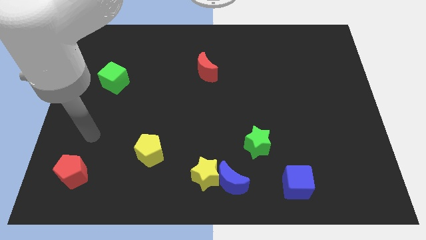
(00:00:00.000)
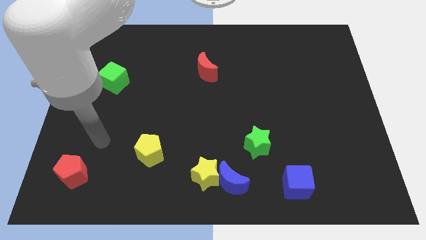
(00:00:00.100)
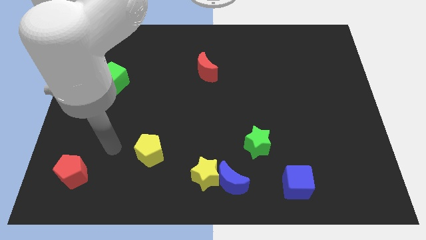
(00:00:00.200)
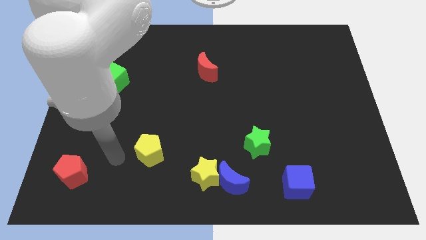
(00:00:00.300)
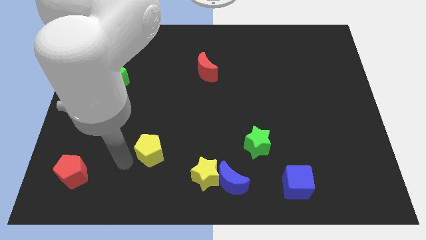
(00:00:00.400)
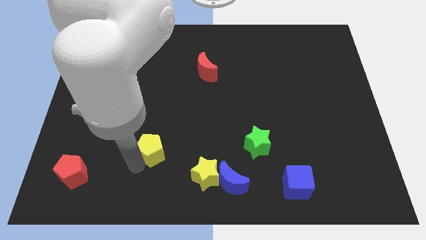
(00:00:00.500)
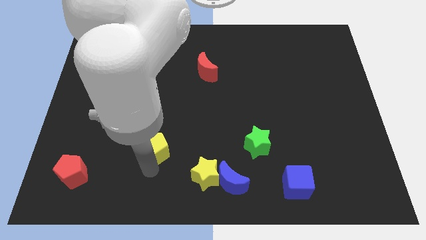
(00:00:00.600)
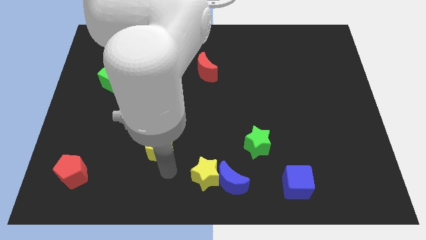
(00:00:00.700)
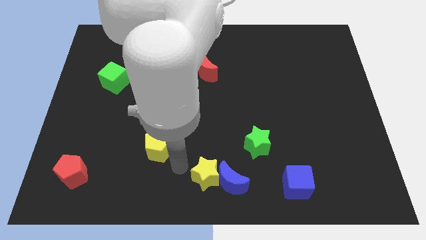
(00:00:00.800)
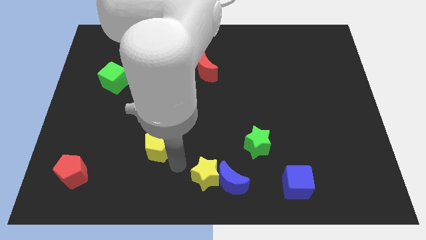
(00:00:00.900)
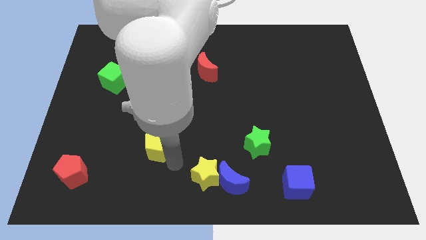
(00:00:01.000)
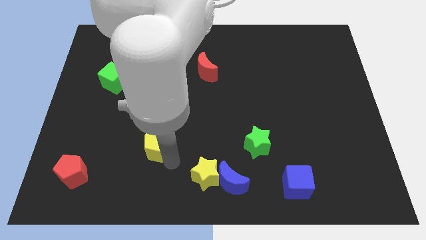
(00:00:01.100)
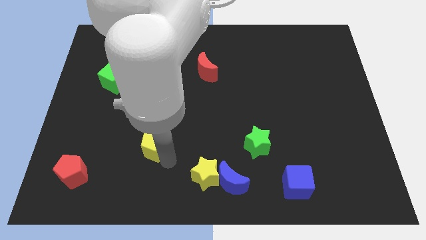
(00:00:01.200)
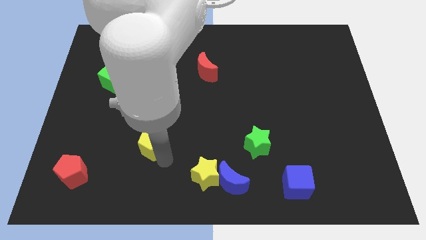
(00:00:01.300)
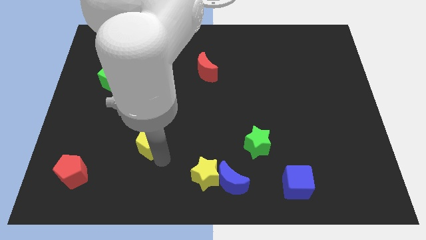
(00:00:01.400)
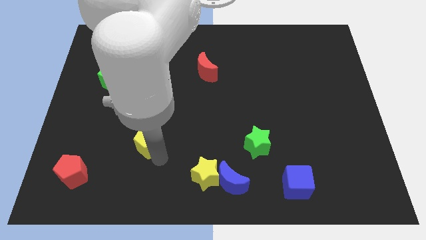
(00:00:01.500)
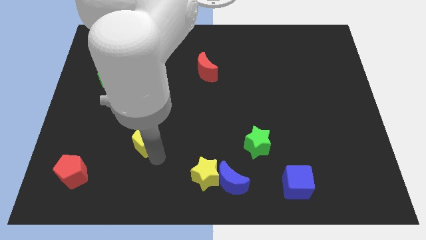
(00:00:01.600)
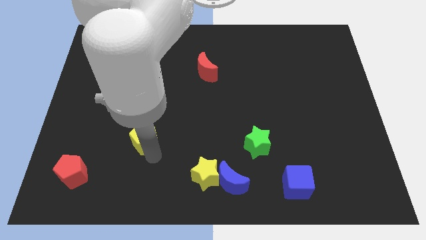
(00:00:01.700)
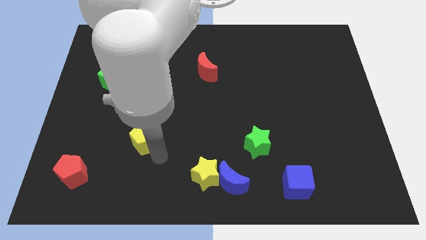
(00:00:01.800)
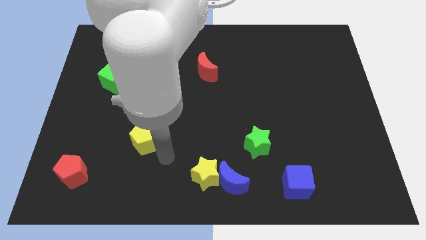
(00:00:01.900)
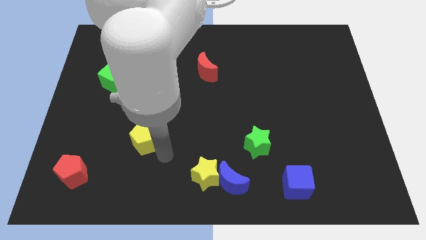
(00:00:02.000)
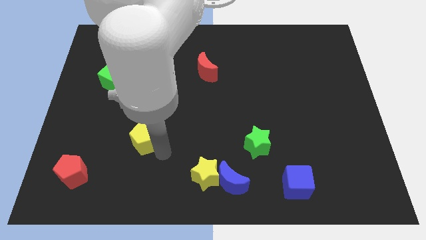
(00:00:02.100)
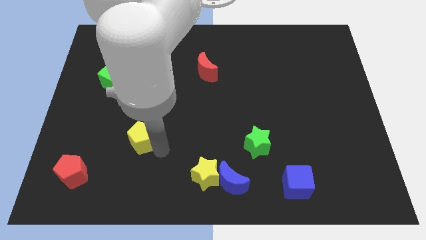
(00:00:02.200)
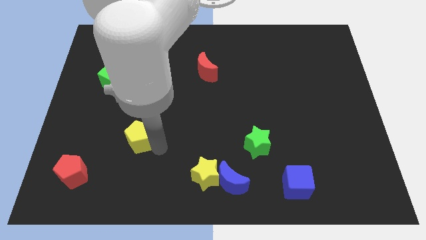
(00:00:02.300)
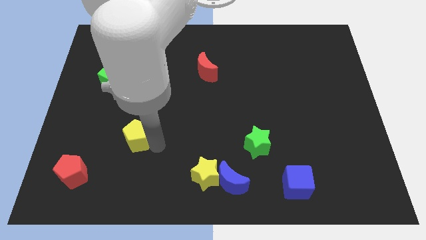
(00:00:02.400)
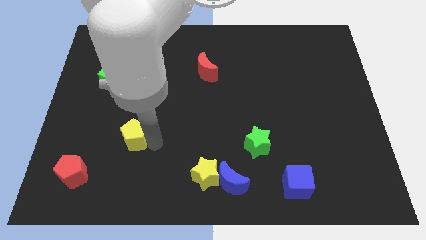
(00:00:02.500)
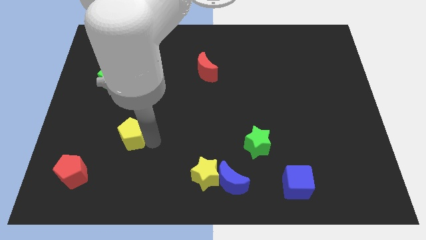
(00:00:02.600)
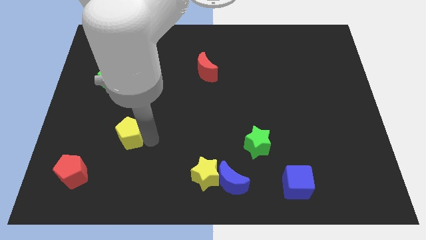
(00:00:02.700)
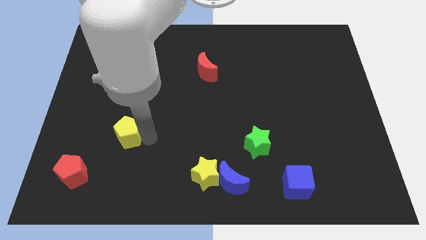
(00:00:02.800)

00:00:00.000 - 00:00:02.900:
slightly move the yellow pentagon upwards and left

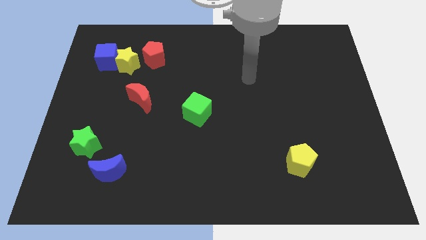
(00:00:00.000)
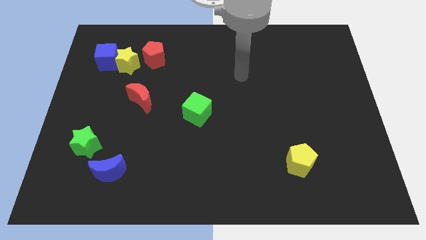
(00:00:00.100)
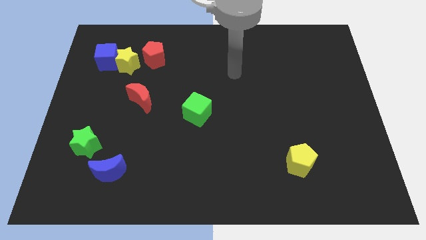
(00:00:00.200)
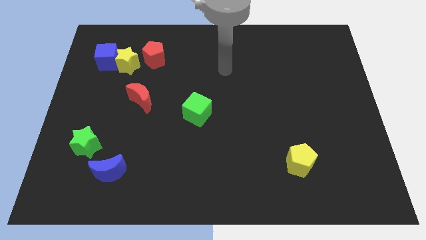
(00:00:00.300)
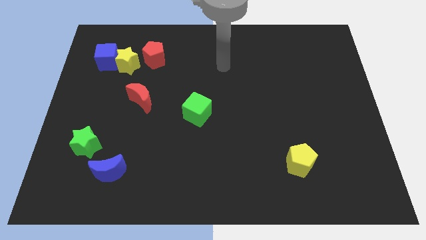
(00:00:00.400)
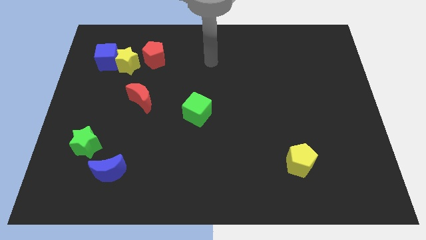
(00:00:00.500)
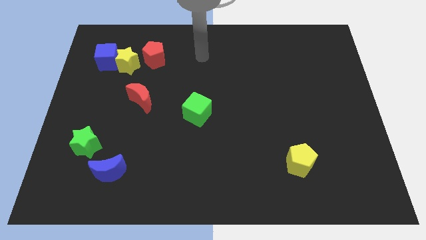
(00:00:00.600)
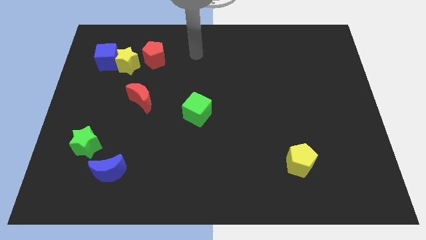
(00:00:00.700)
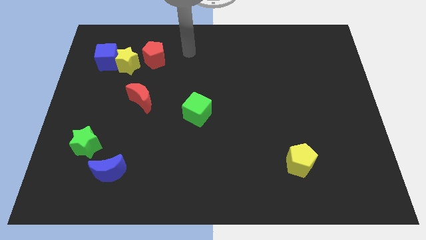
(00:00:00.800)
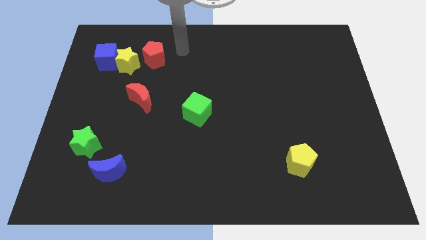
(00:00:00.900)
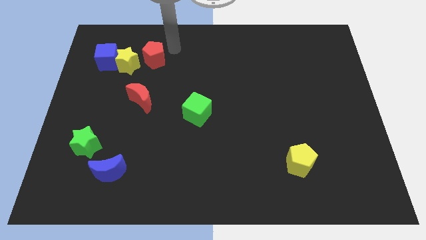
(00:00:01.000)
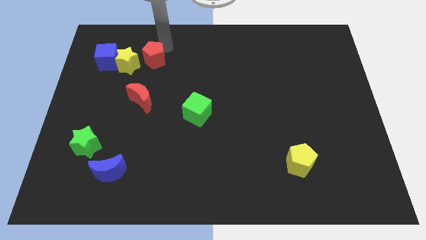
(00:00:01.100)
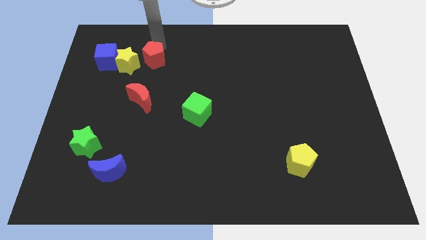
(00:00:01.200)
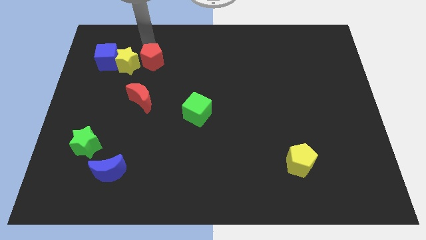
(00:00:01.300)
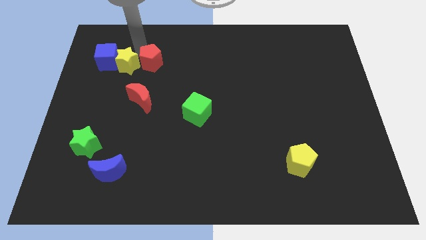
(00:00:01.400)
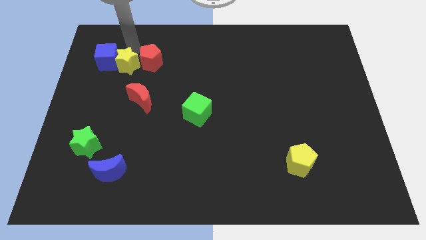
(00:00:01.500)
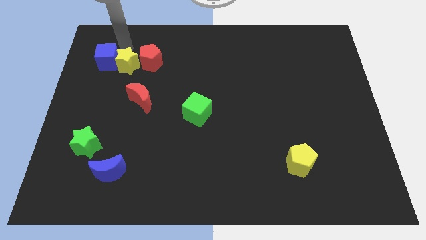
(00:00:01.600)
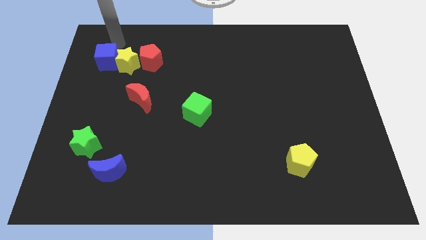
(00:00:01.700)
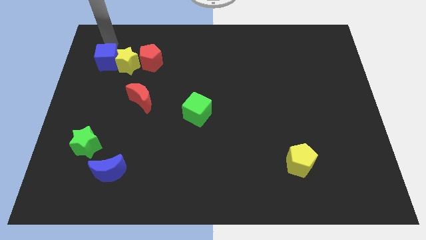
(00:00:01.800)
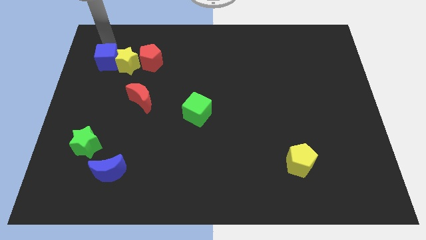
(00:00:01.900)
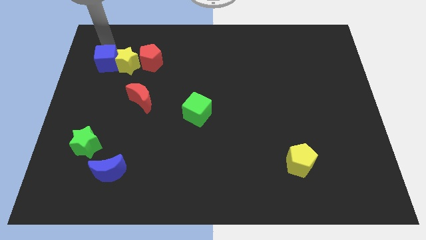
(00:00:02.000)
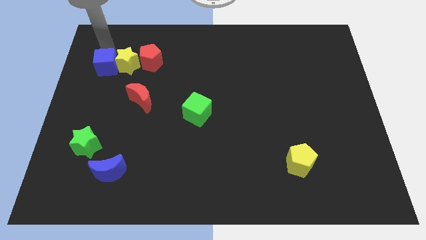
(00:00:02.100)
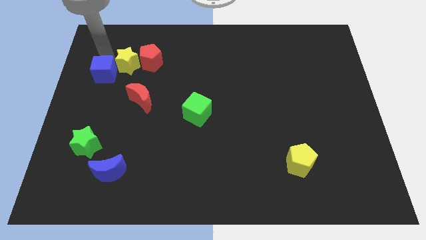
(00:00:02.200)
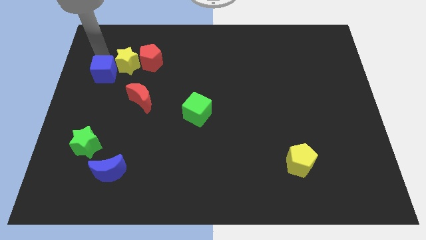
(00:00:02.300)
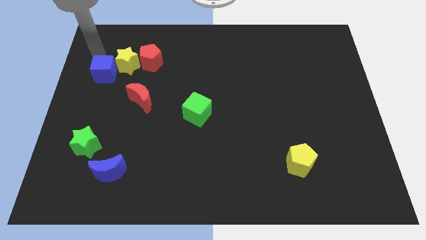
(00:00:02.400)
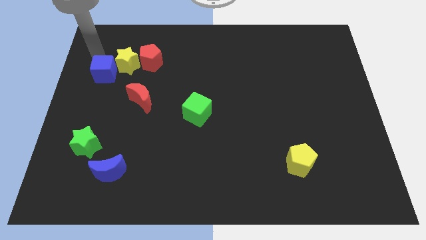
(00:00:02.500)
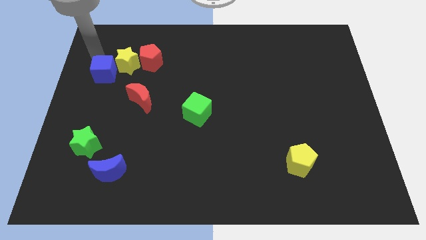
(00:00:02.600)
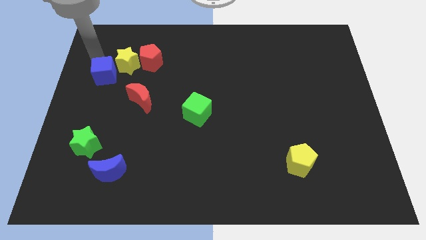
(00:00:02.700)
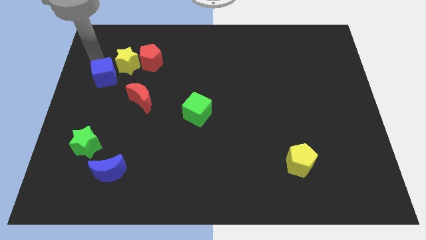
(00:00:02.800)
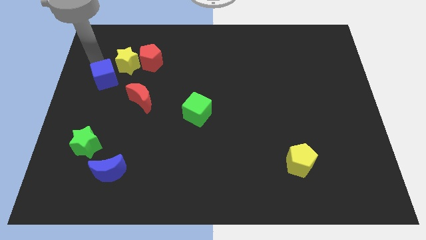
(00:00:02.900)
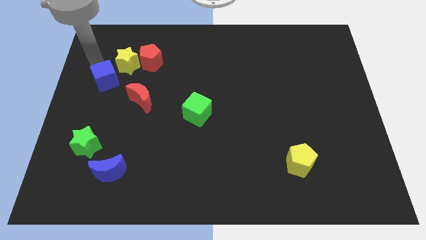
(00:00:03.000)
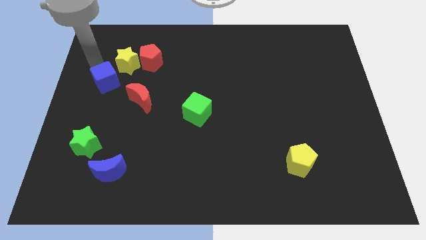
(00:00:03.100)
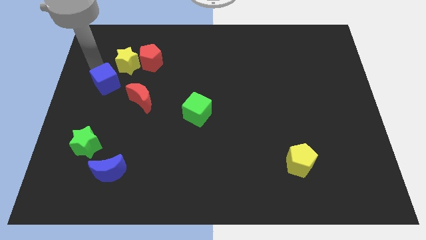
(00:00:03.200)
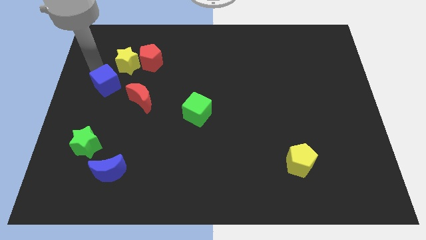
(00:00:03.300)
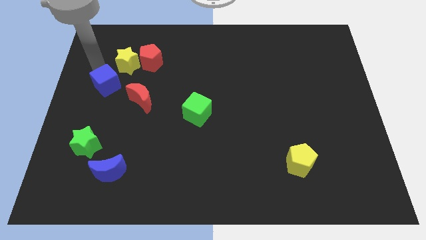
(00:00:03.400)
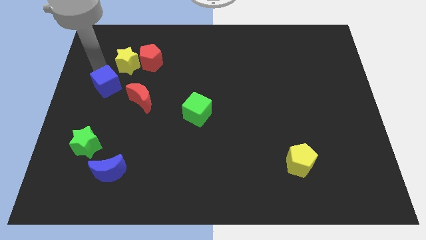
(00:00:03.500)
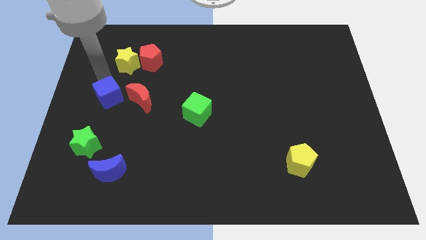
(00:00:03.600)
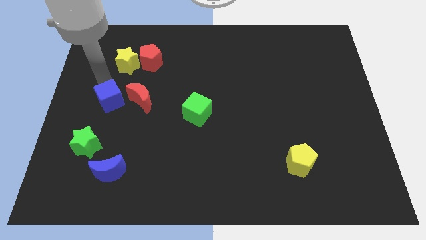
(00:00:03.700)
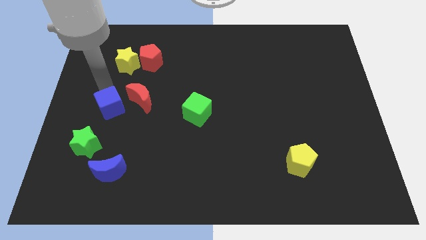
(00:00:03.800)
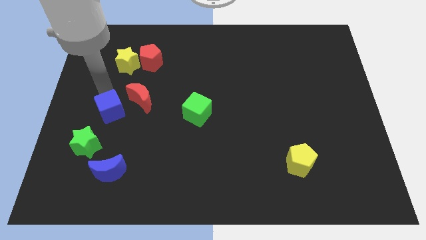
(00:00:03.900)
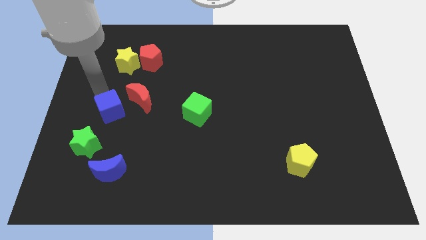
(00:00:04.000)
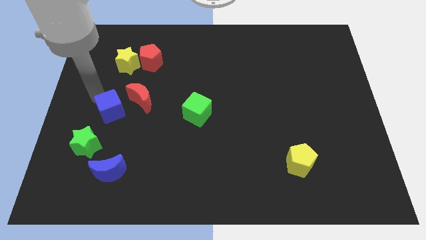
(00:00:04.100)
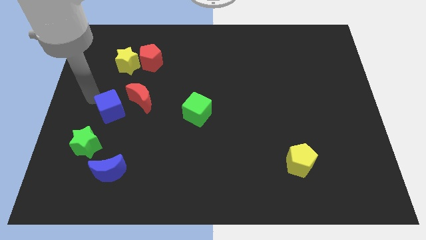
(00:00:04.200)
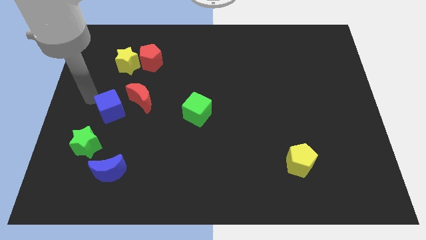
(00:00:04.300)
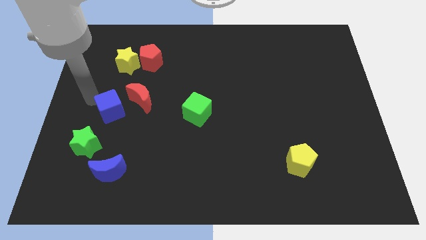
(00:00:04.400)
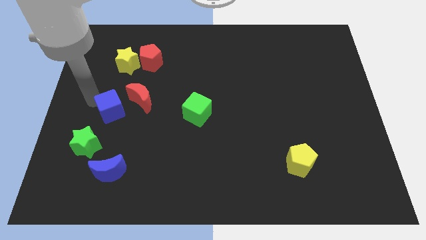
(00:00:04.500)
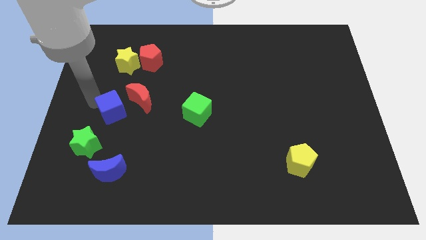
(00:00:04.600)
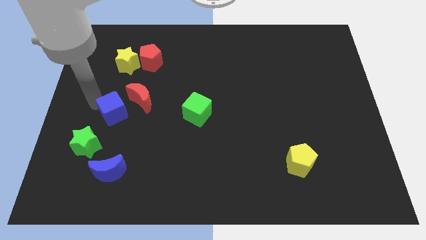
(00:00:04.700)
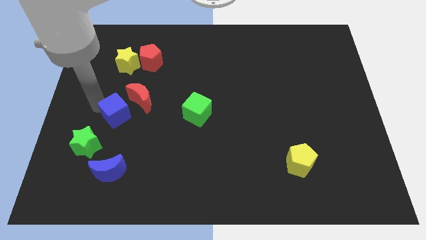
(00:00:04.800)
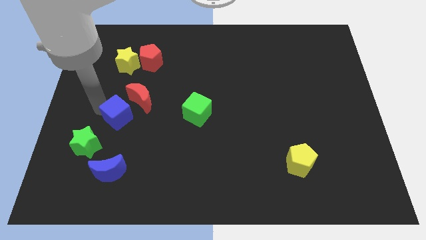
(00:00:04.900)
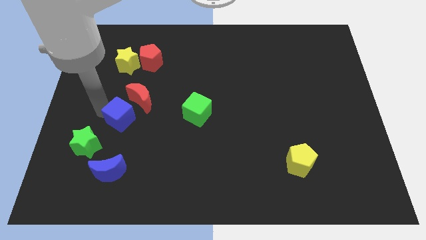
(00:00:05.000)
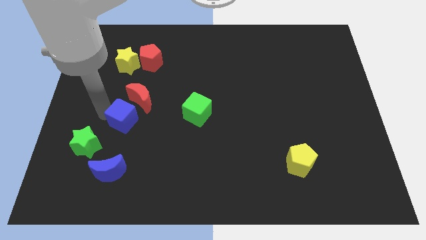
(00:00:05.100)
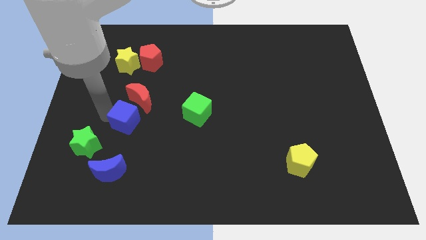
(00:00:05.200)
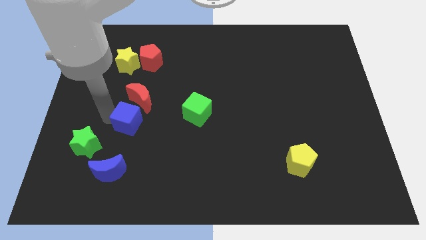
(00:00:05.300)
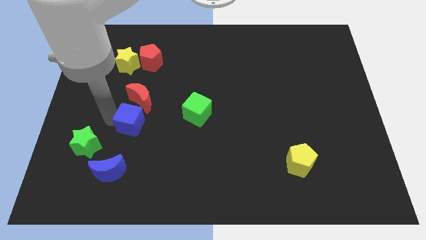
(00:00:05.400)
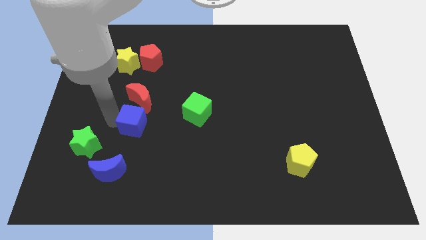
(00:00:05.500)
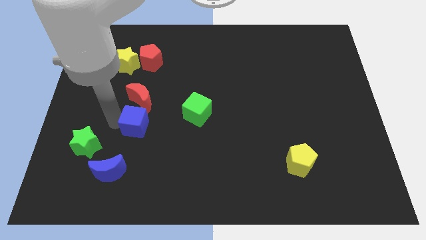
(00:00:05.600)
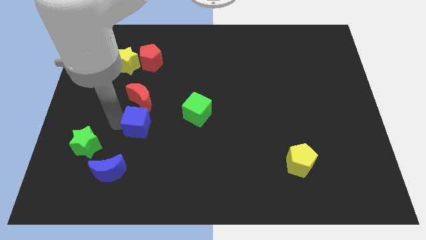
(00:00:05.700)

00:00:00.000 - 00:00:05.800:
push the blue cube down and to the right diagonally
